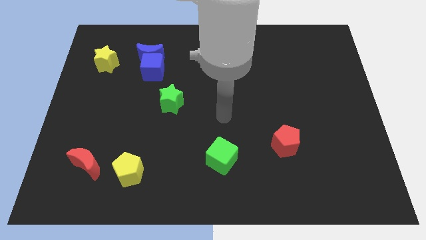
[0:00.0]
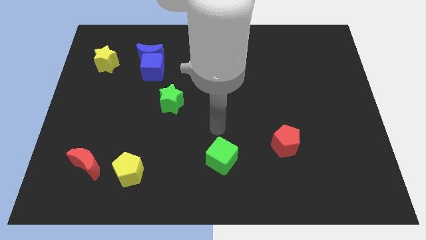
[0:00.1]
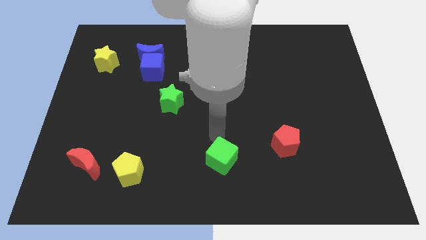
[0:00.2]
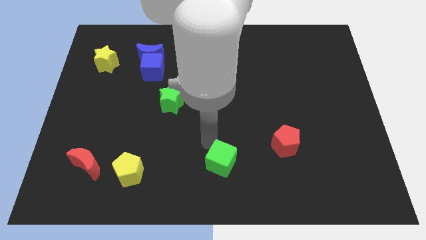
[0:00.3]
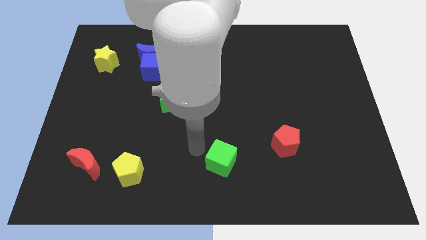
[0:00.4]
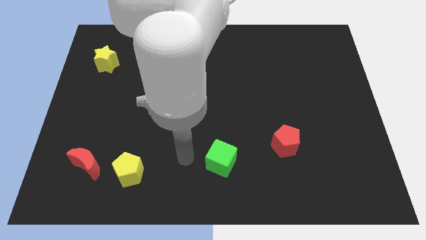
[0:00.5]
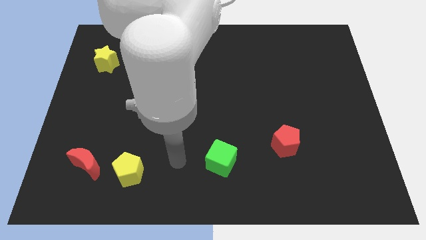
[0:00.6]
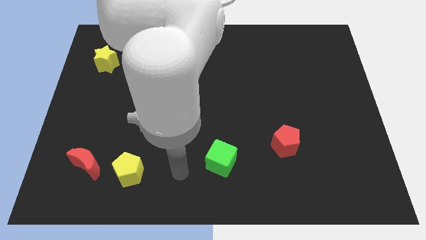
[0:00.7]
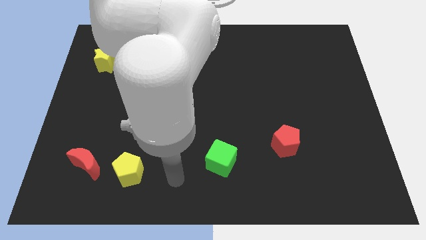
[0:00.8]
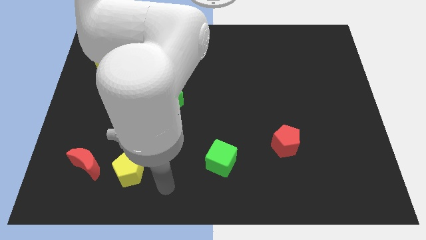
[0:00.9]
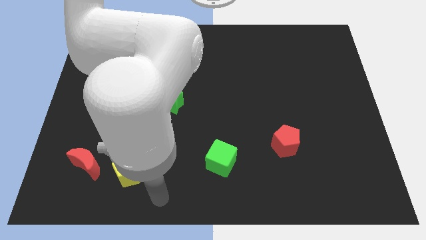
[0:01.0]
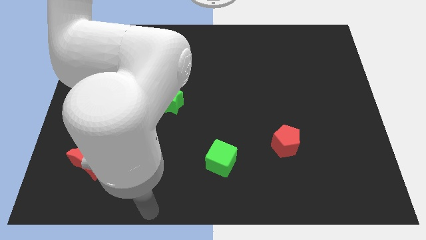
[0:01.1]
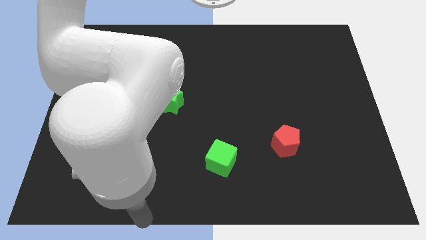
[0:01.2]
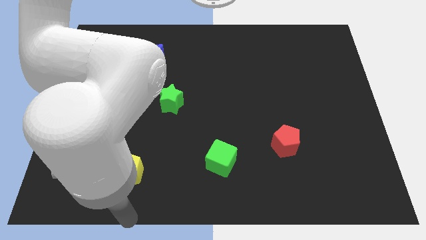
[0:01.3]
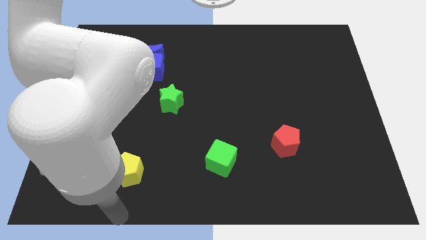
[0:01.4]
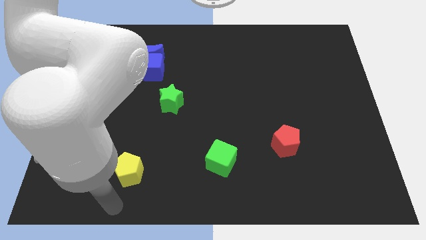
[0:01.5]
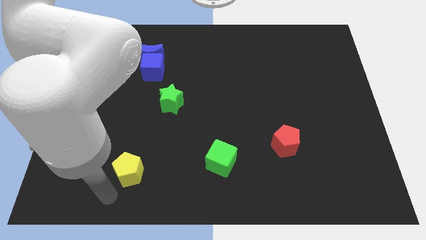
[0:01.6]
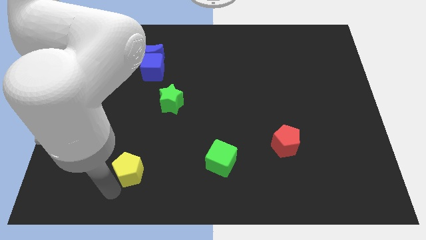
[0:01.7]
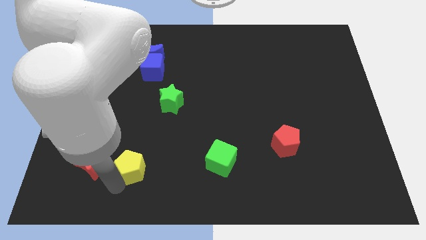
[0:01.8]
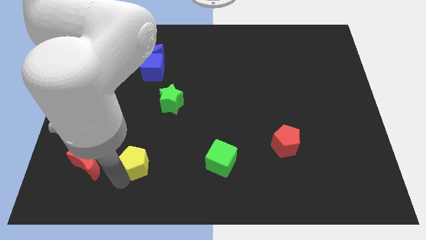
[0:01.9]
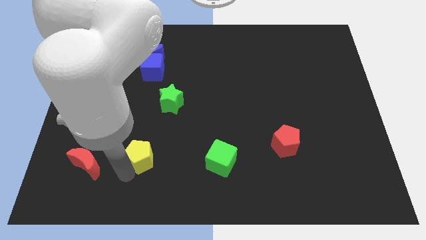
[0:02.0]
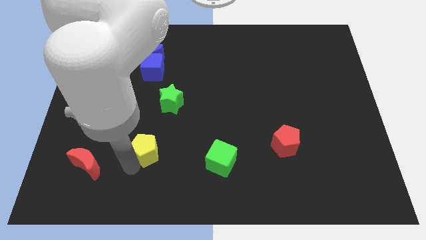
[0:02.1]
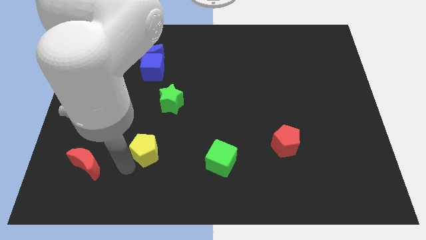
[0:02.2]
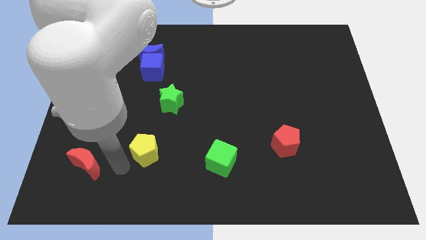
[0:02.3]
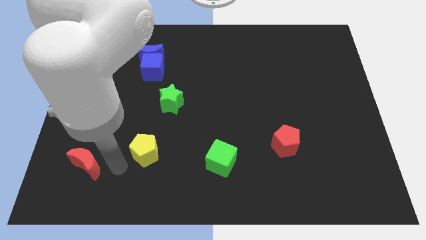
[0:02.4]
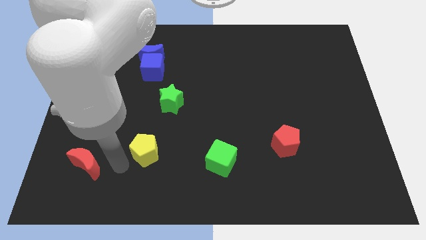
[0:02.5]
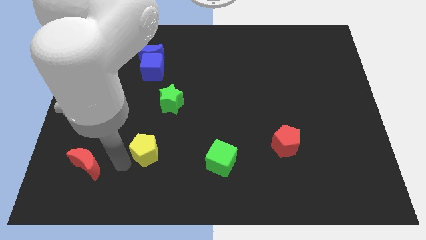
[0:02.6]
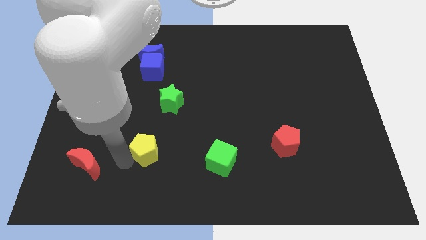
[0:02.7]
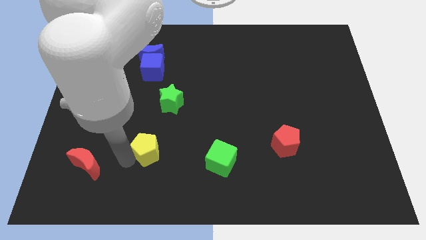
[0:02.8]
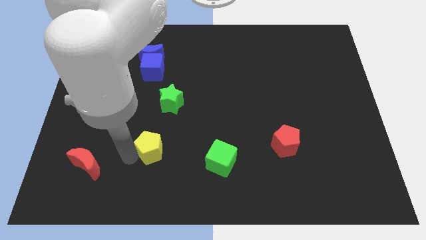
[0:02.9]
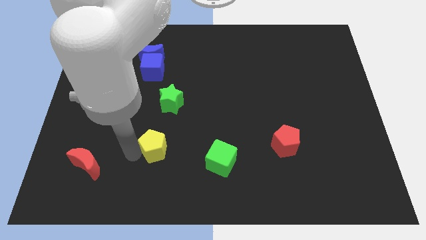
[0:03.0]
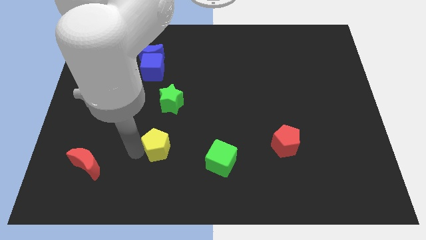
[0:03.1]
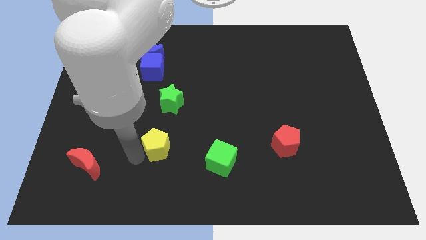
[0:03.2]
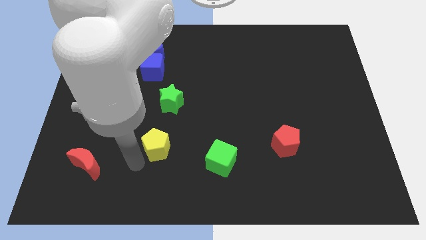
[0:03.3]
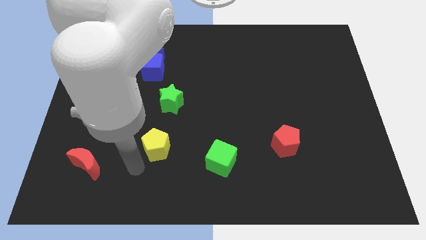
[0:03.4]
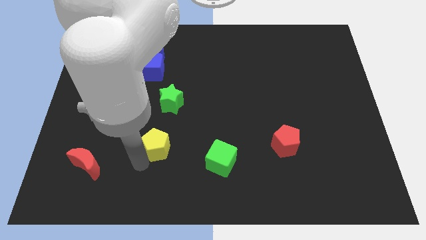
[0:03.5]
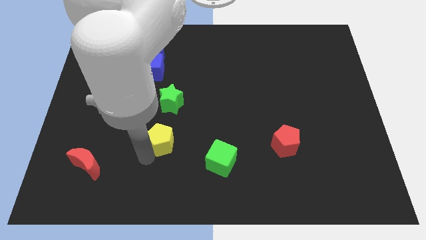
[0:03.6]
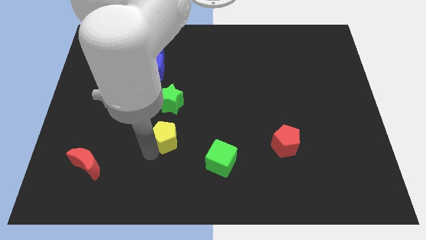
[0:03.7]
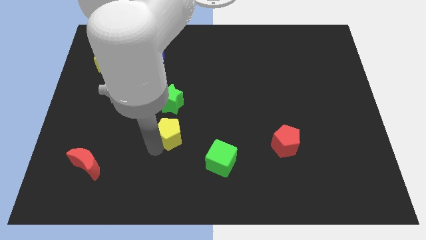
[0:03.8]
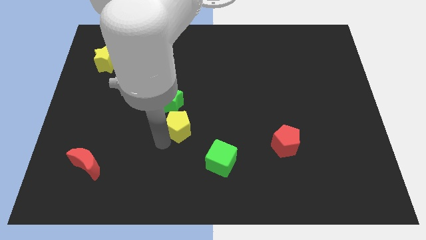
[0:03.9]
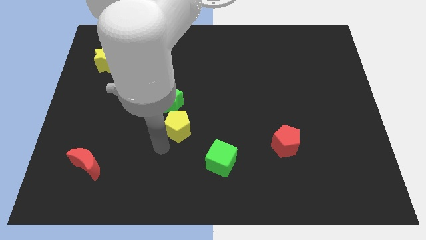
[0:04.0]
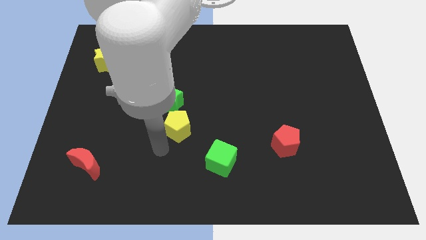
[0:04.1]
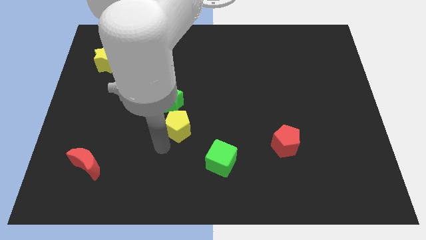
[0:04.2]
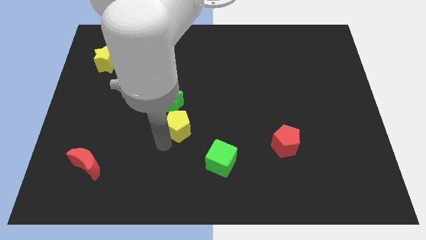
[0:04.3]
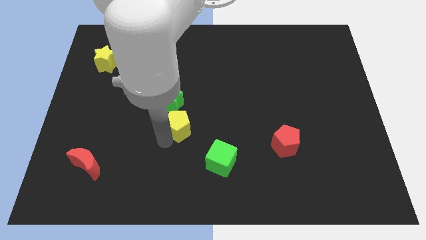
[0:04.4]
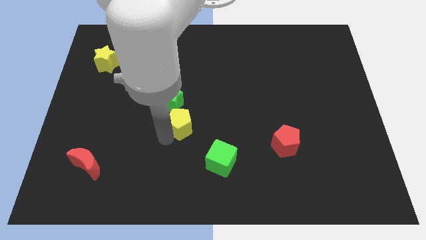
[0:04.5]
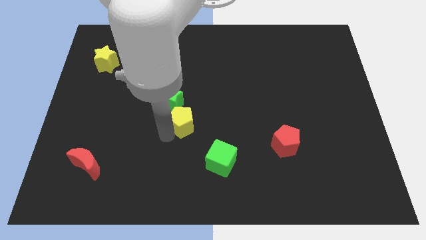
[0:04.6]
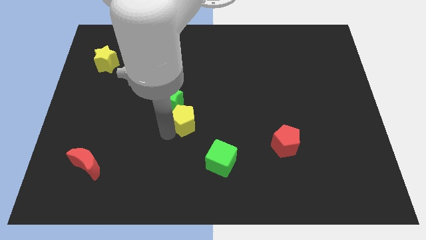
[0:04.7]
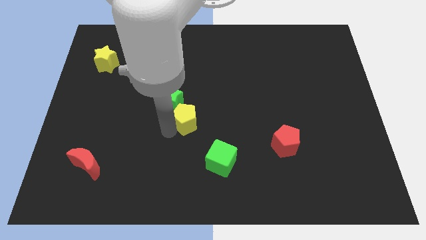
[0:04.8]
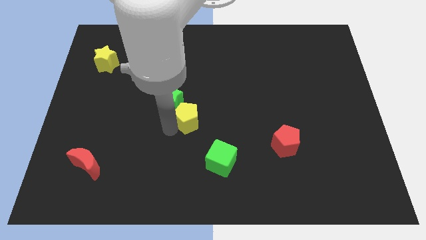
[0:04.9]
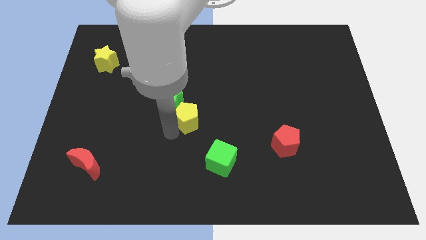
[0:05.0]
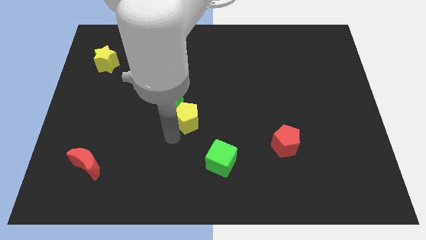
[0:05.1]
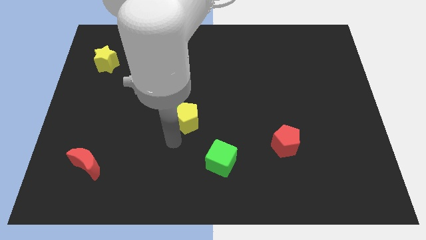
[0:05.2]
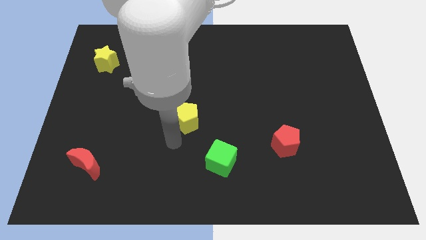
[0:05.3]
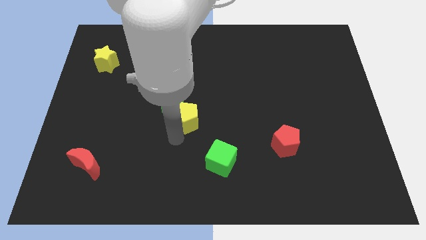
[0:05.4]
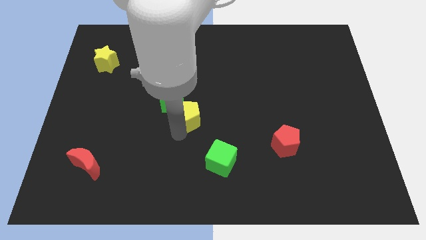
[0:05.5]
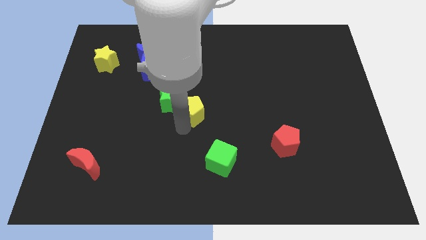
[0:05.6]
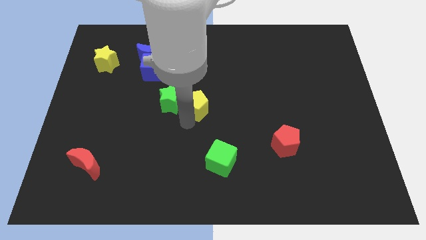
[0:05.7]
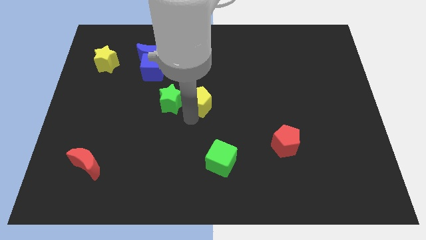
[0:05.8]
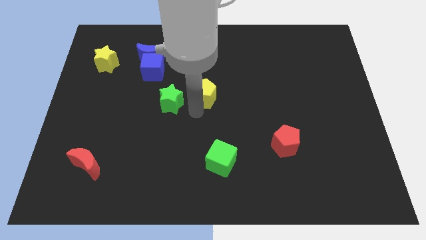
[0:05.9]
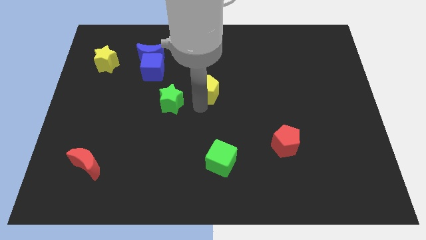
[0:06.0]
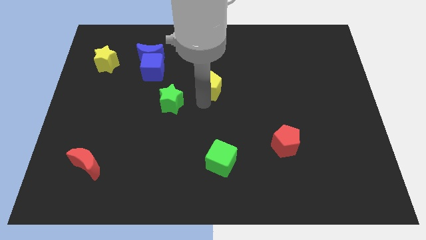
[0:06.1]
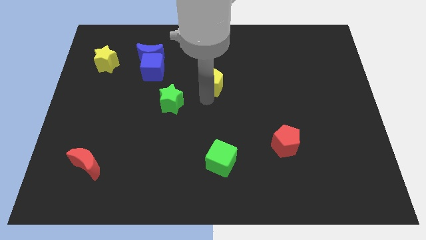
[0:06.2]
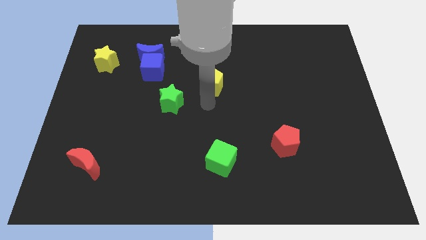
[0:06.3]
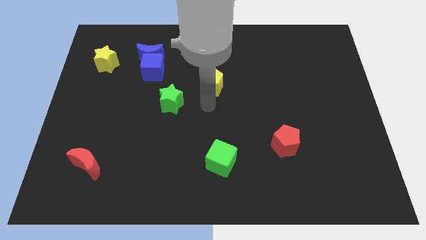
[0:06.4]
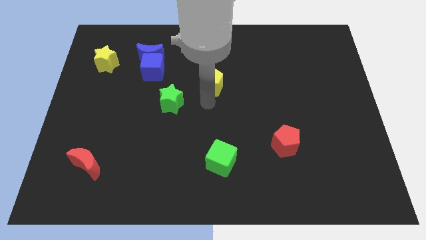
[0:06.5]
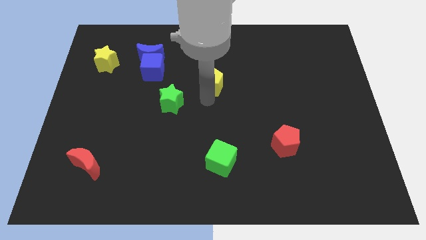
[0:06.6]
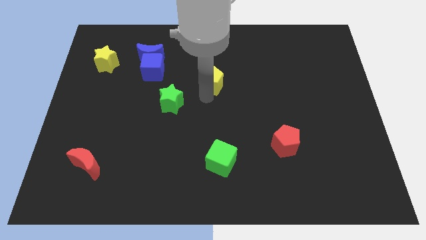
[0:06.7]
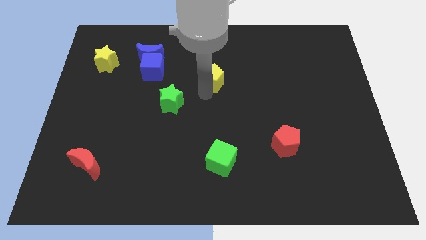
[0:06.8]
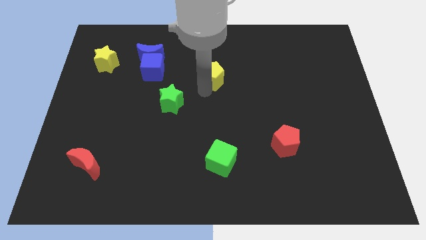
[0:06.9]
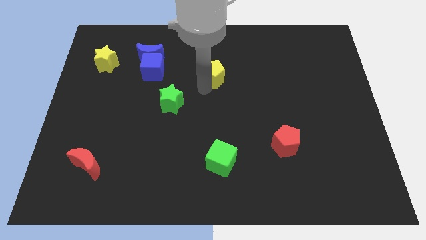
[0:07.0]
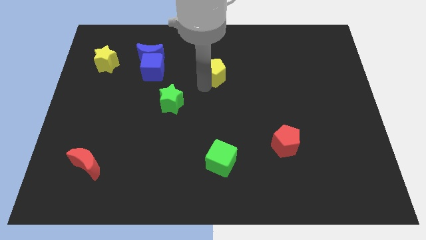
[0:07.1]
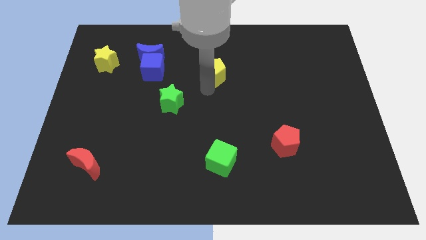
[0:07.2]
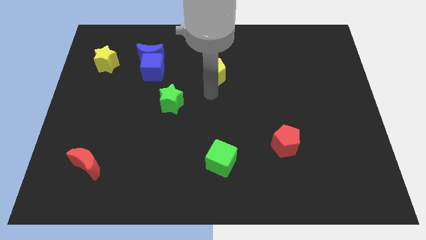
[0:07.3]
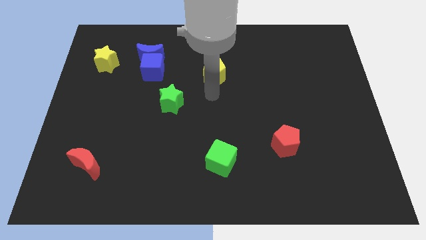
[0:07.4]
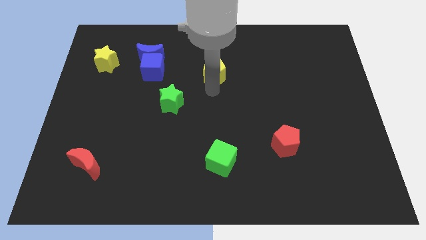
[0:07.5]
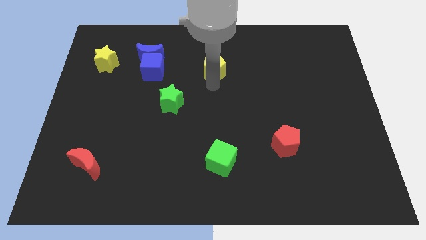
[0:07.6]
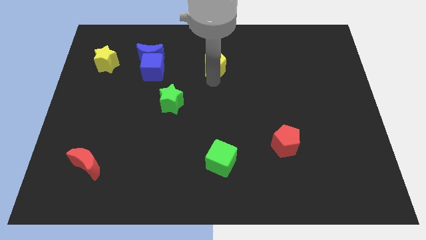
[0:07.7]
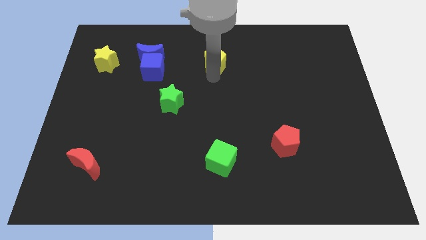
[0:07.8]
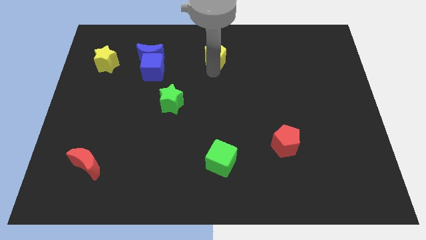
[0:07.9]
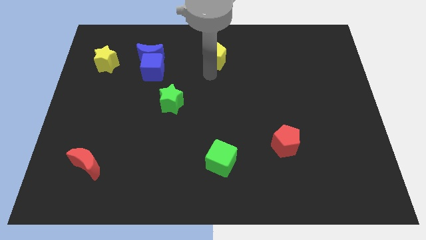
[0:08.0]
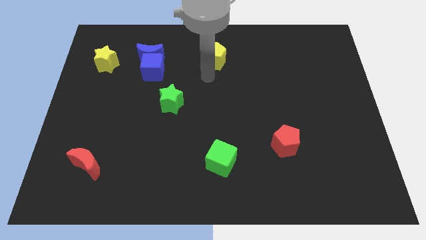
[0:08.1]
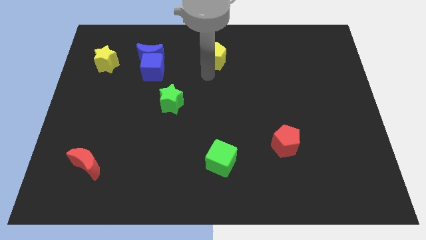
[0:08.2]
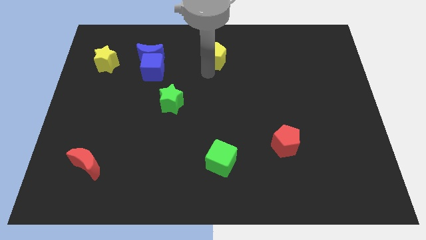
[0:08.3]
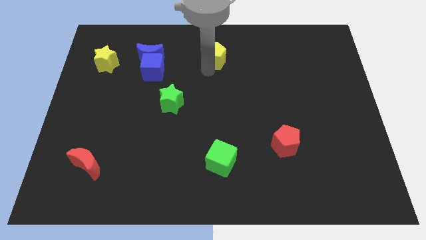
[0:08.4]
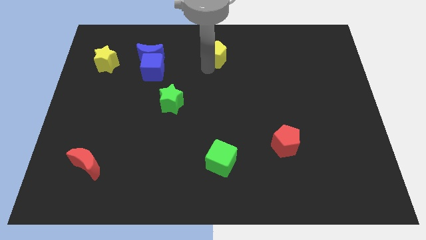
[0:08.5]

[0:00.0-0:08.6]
put the yellow pentagon to the top
